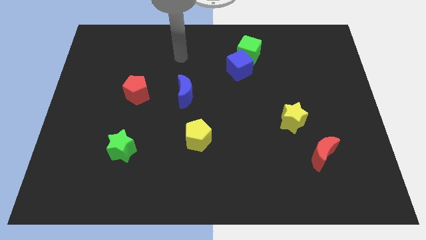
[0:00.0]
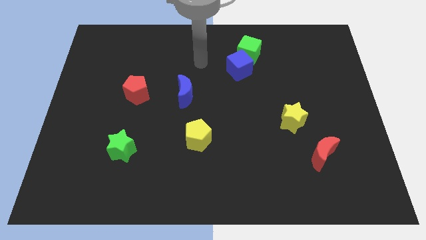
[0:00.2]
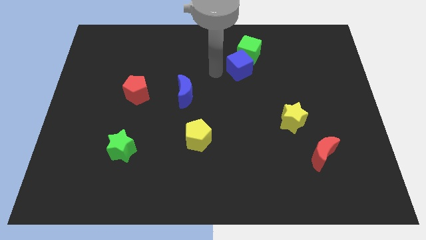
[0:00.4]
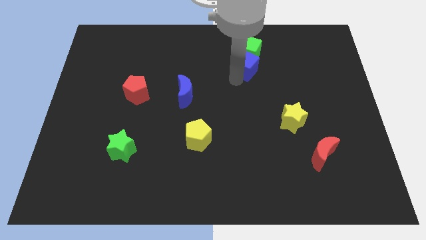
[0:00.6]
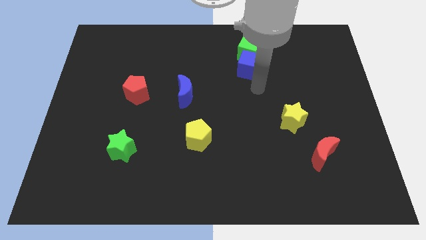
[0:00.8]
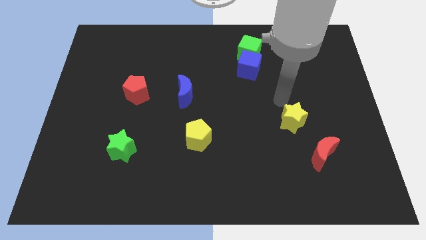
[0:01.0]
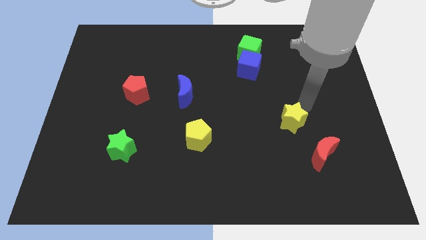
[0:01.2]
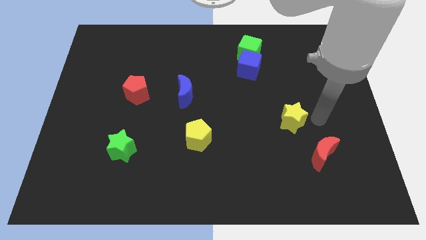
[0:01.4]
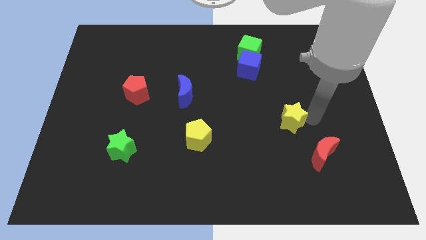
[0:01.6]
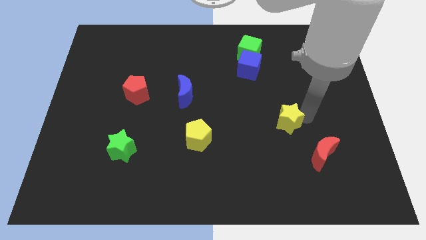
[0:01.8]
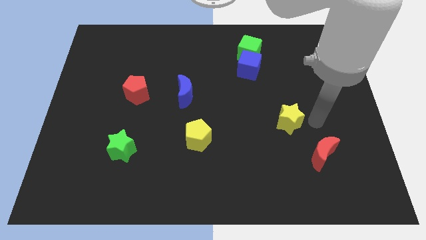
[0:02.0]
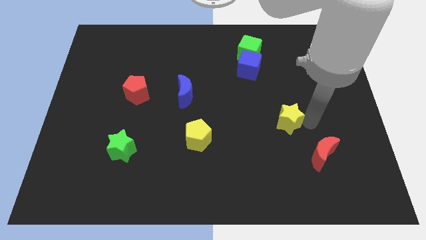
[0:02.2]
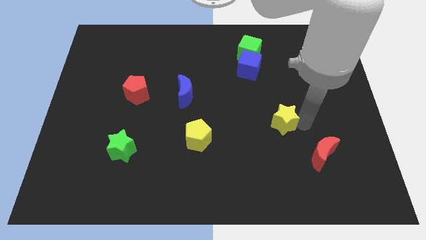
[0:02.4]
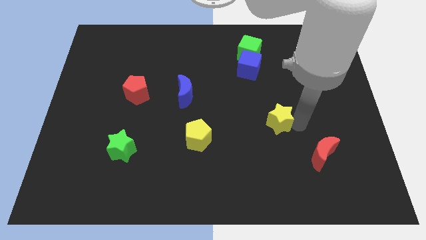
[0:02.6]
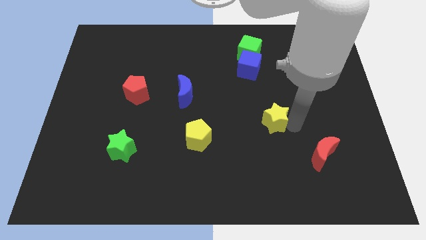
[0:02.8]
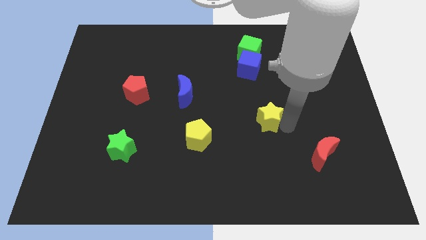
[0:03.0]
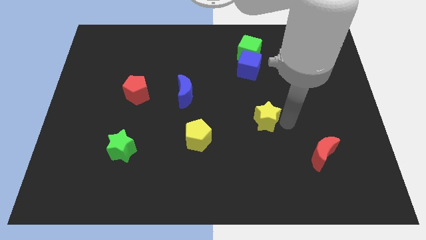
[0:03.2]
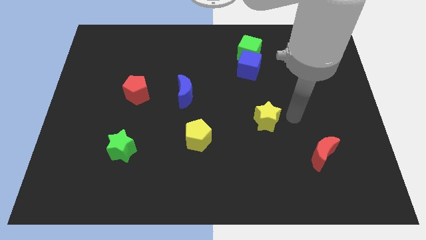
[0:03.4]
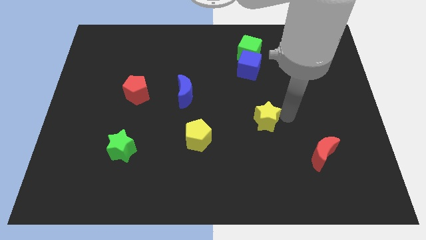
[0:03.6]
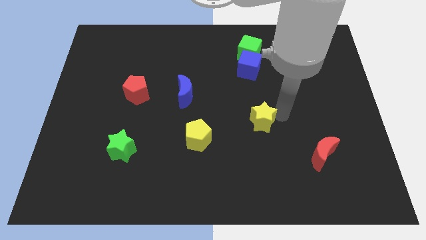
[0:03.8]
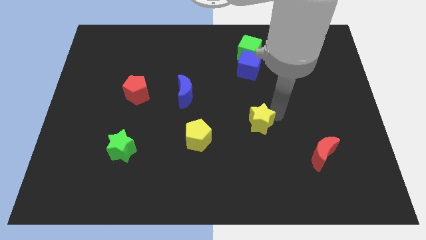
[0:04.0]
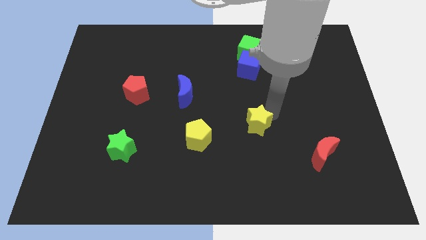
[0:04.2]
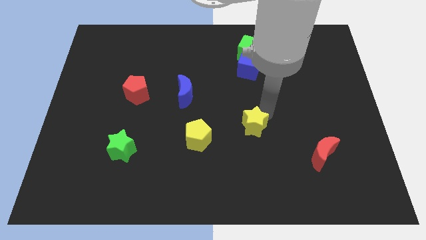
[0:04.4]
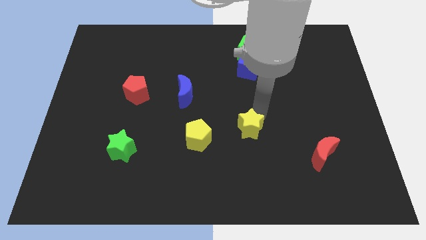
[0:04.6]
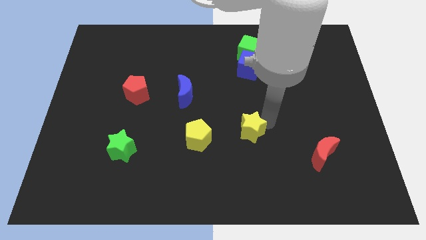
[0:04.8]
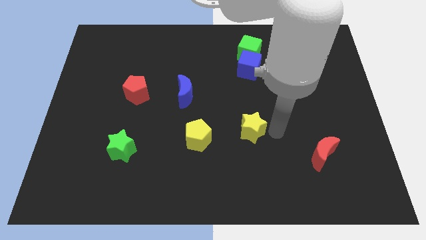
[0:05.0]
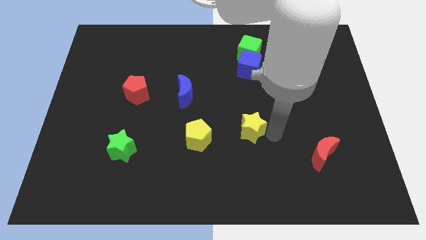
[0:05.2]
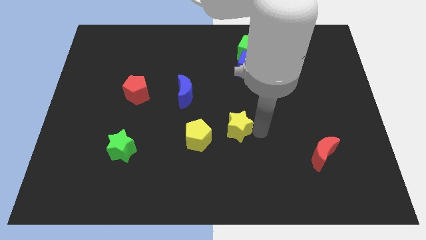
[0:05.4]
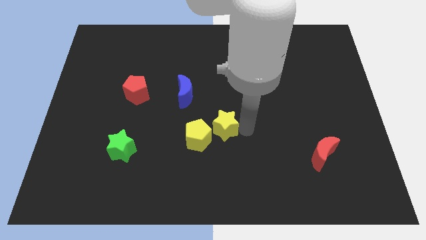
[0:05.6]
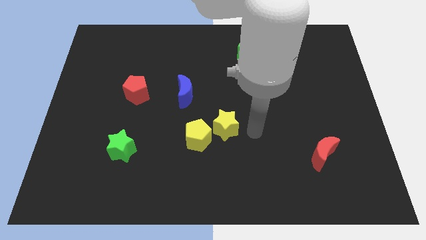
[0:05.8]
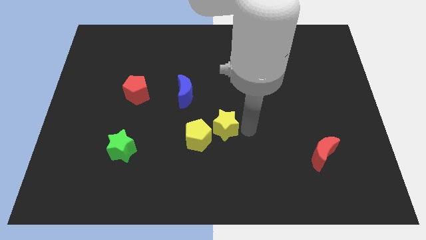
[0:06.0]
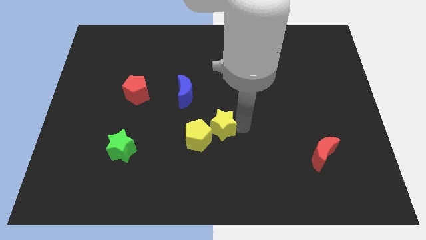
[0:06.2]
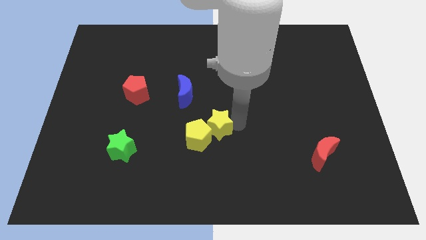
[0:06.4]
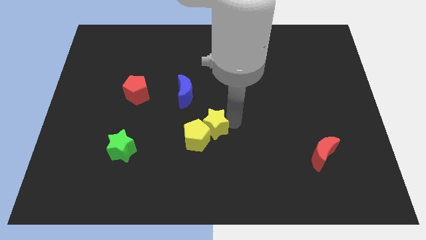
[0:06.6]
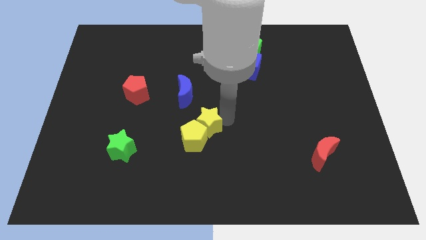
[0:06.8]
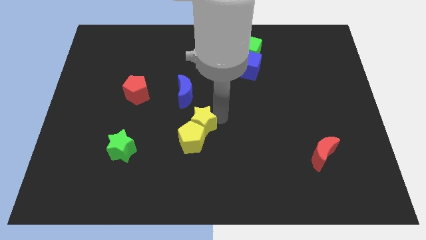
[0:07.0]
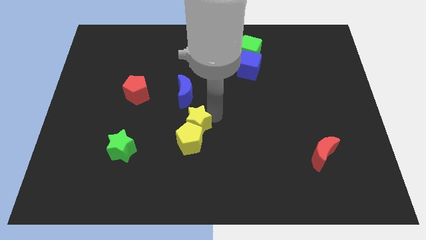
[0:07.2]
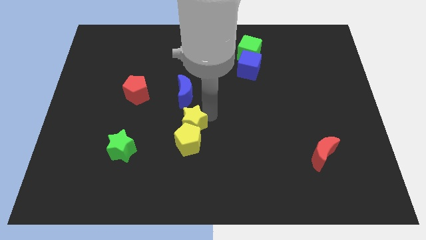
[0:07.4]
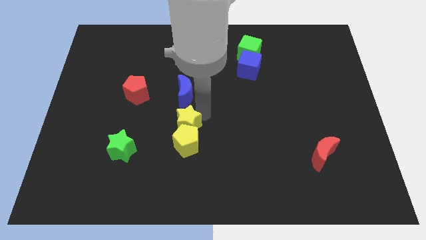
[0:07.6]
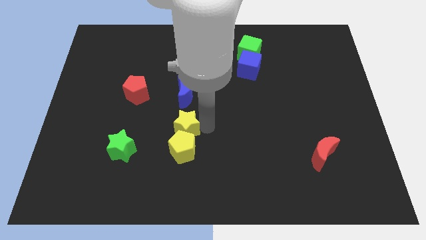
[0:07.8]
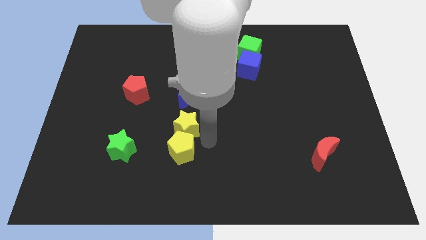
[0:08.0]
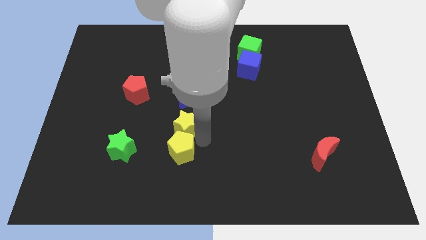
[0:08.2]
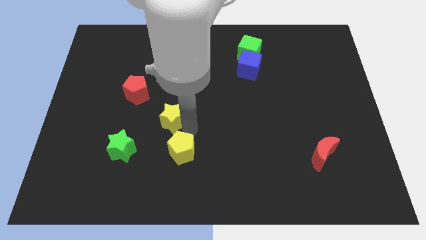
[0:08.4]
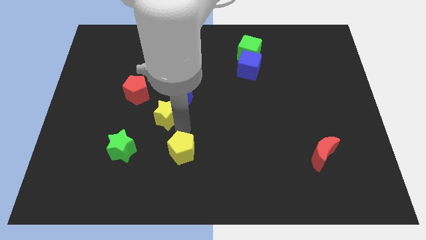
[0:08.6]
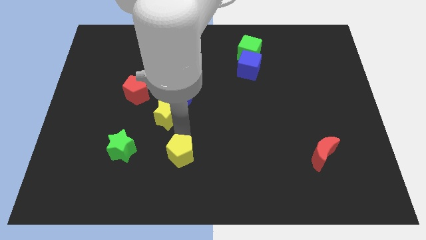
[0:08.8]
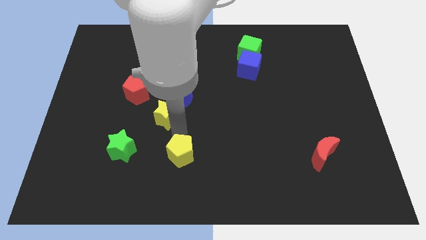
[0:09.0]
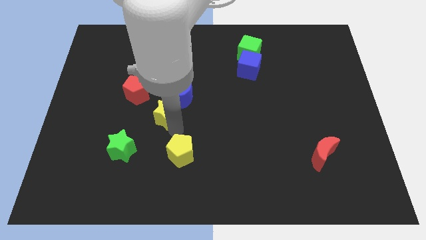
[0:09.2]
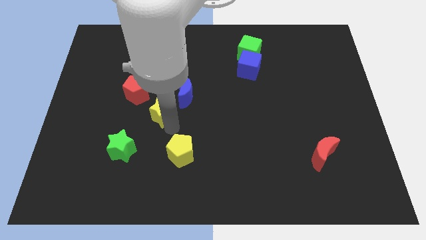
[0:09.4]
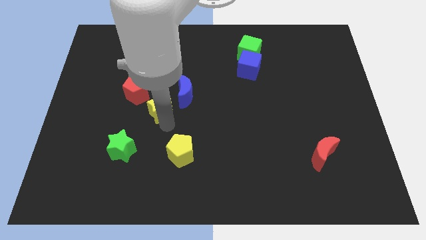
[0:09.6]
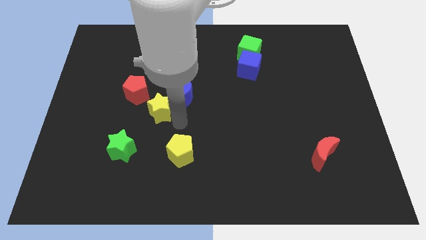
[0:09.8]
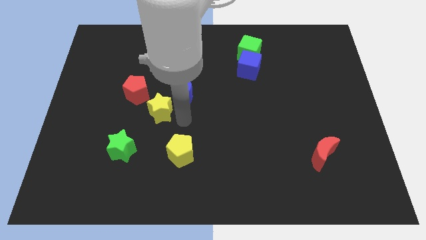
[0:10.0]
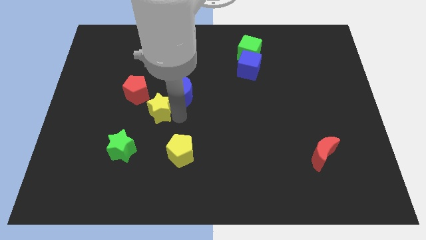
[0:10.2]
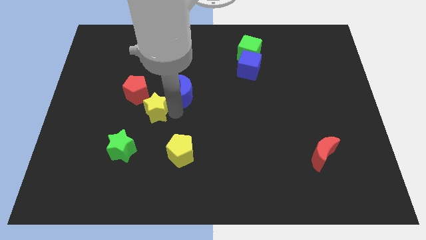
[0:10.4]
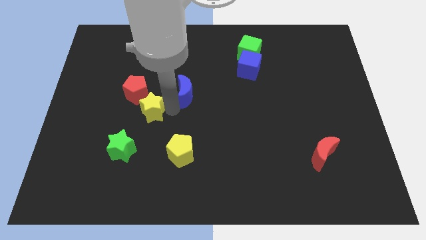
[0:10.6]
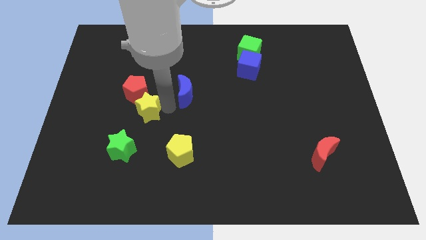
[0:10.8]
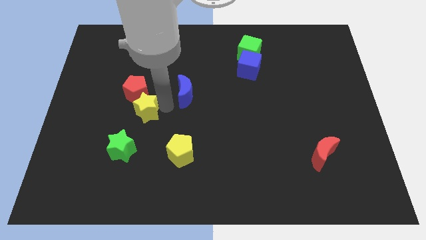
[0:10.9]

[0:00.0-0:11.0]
slide the yellow star to the red pentagon

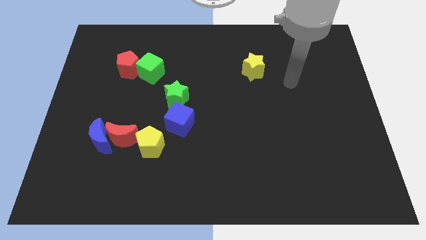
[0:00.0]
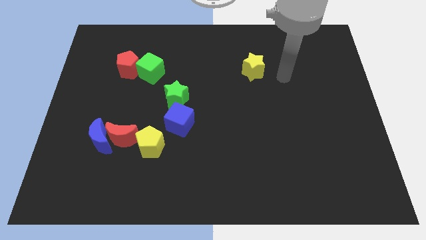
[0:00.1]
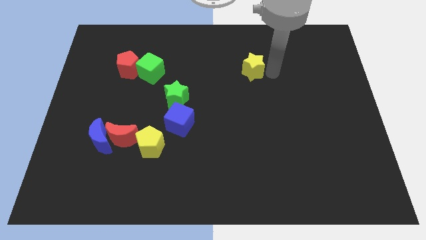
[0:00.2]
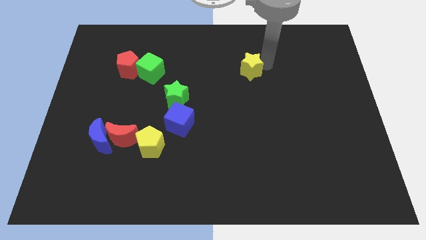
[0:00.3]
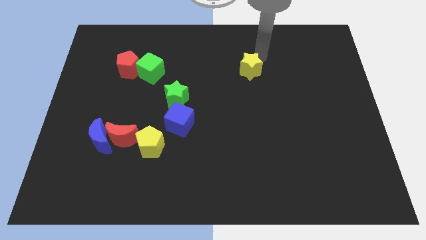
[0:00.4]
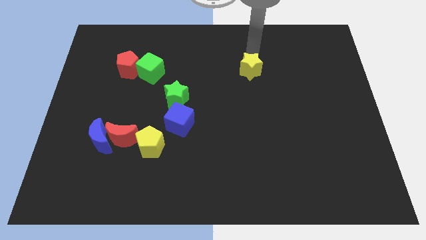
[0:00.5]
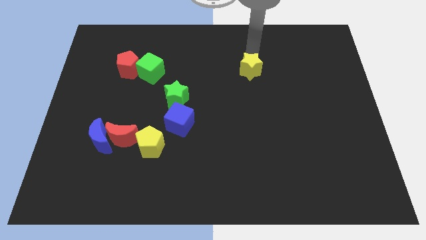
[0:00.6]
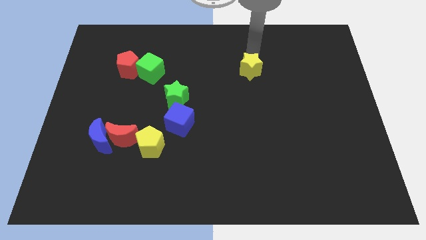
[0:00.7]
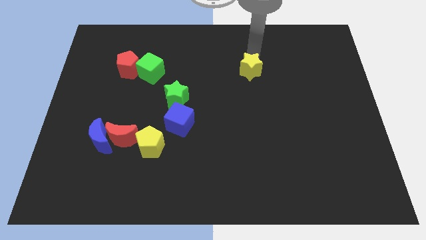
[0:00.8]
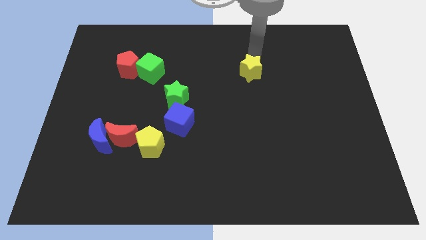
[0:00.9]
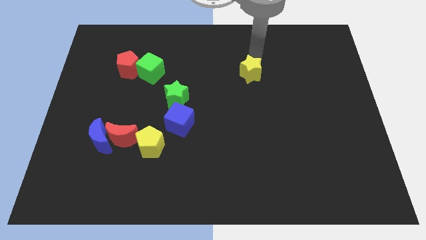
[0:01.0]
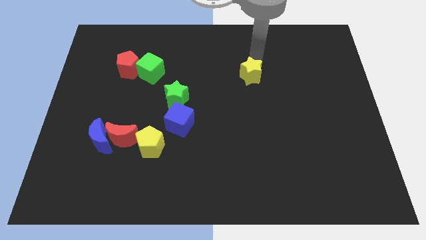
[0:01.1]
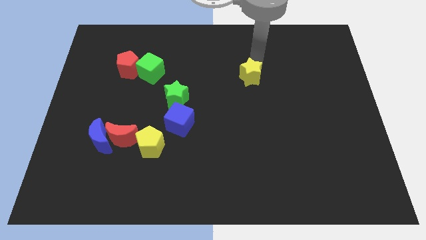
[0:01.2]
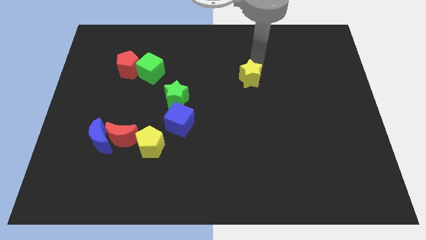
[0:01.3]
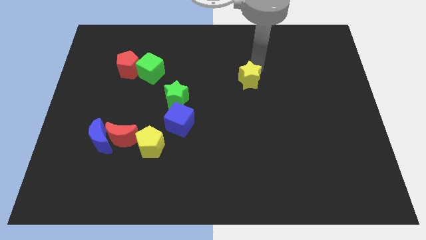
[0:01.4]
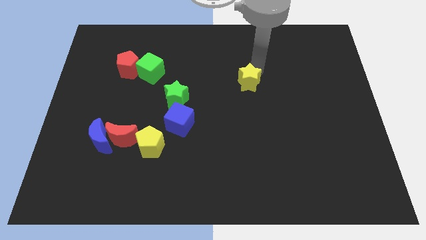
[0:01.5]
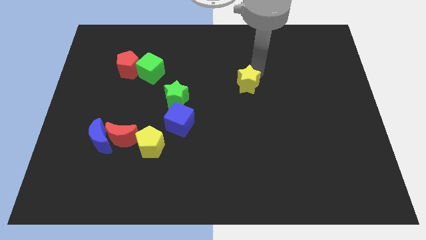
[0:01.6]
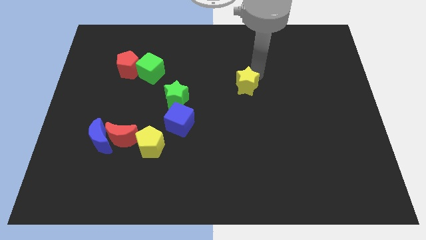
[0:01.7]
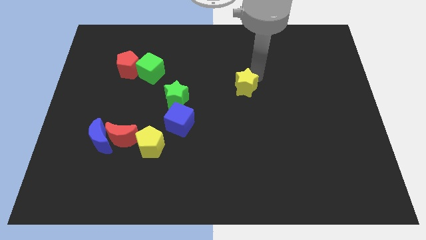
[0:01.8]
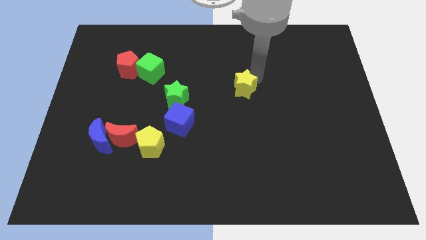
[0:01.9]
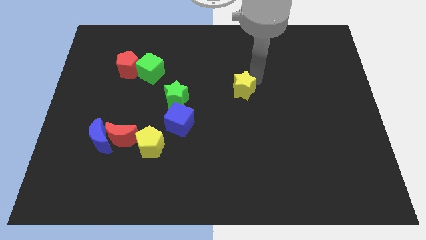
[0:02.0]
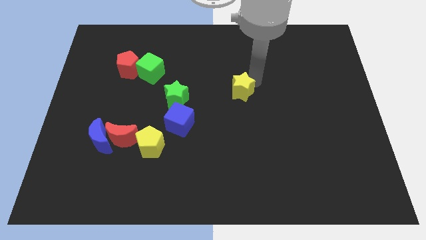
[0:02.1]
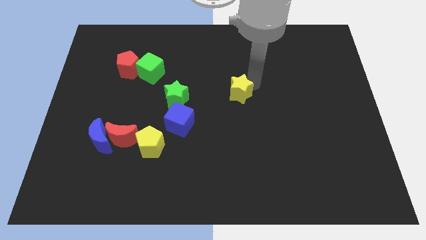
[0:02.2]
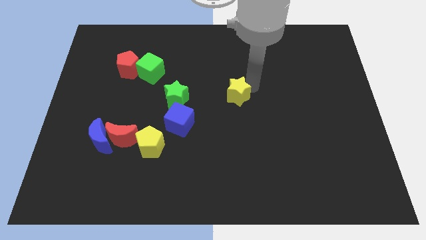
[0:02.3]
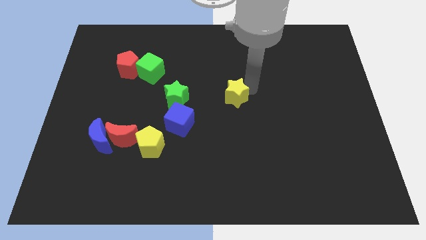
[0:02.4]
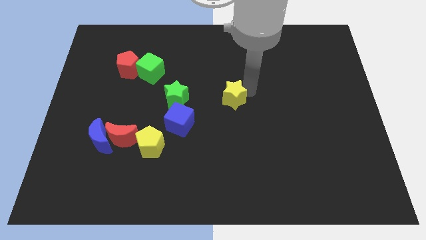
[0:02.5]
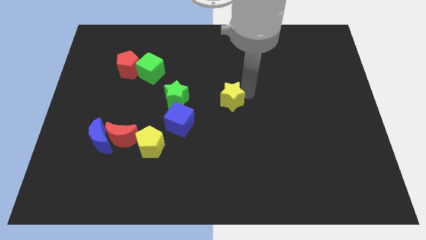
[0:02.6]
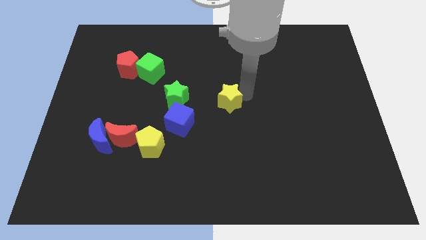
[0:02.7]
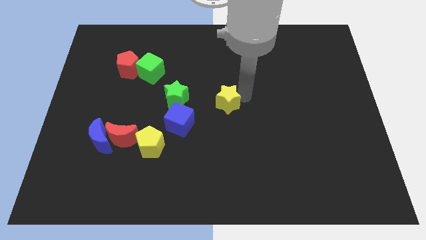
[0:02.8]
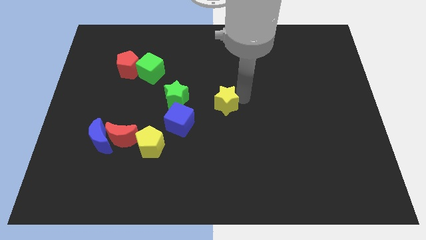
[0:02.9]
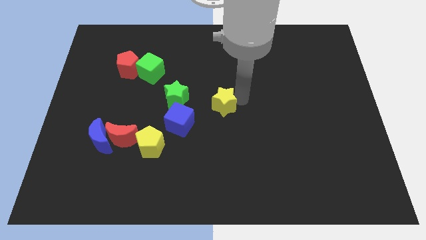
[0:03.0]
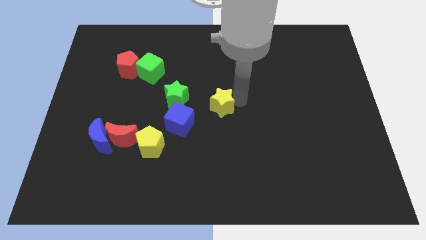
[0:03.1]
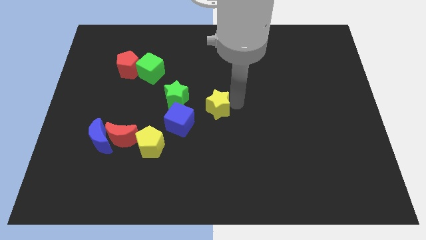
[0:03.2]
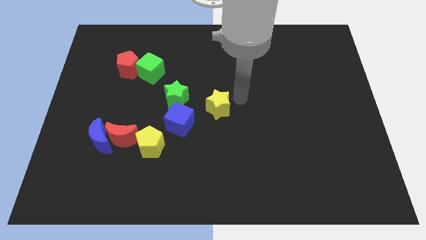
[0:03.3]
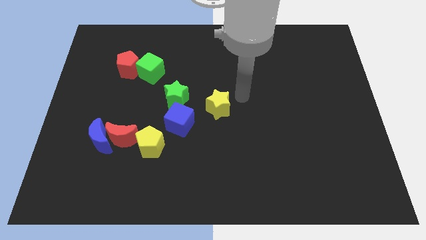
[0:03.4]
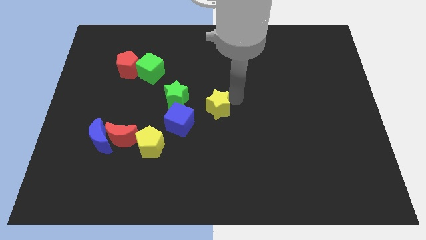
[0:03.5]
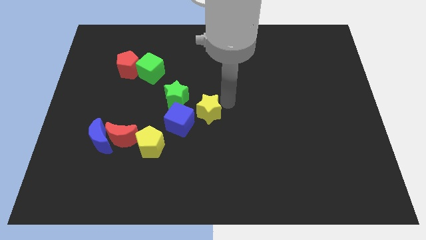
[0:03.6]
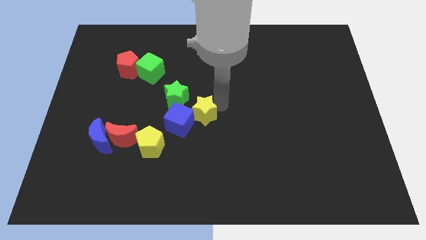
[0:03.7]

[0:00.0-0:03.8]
put the yellow star towards the blue cube
